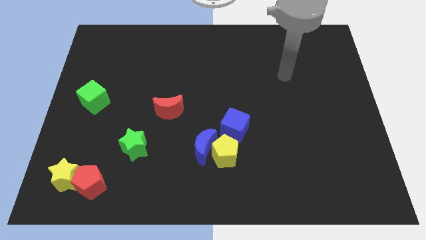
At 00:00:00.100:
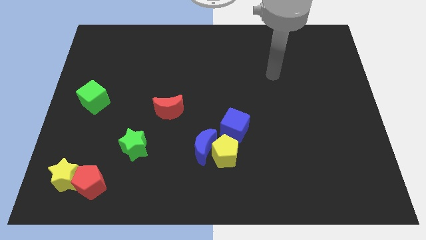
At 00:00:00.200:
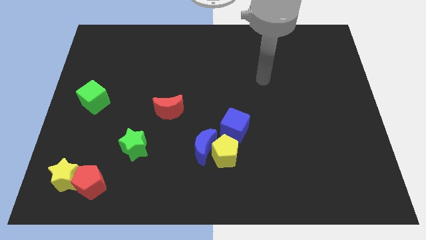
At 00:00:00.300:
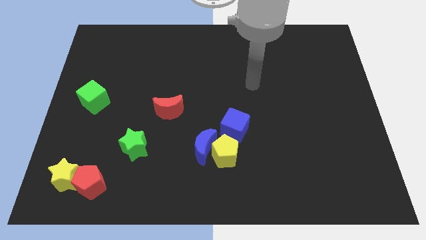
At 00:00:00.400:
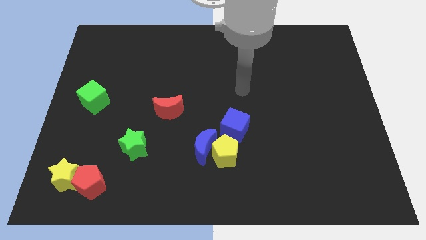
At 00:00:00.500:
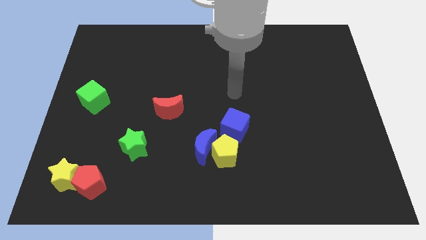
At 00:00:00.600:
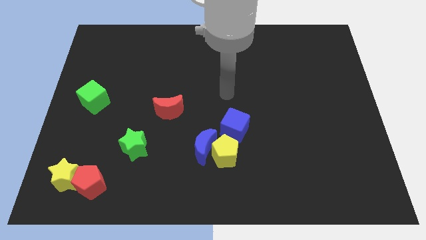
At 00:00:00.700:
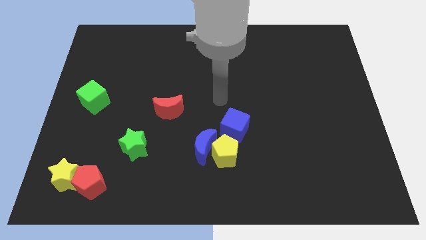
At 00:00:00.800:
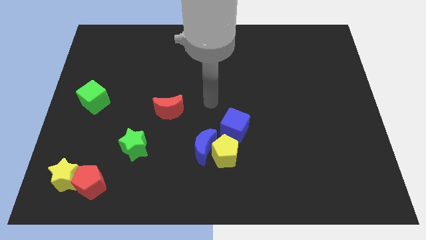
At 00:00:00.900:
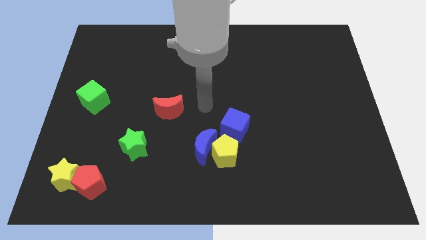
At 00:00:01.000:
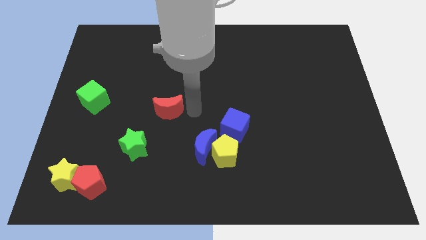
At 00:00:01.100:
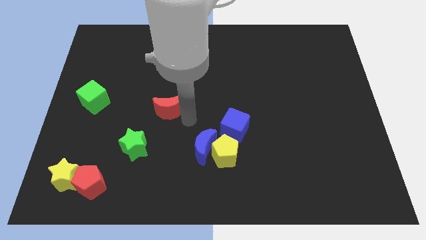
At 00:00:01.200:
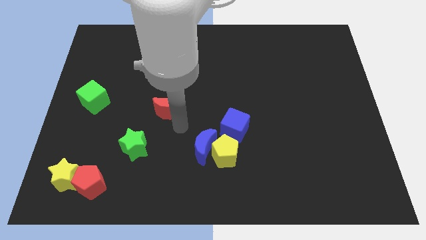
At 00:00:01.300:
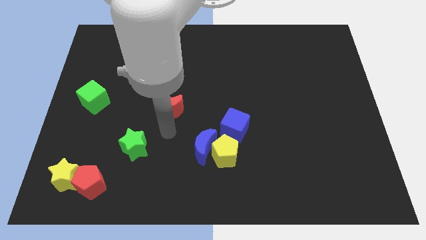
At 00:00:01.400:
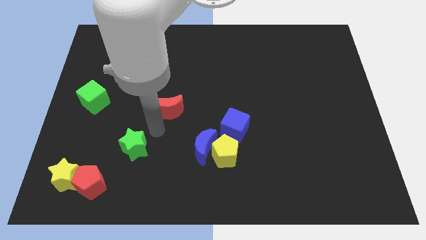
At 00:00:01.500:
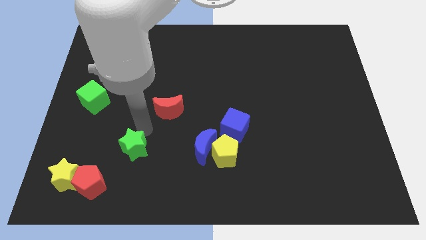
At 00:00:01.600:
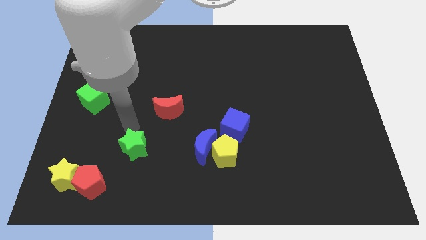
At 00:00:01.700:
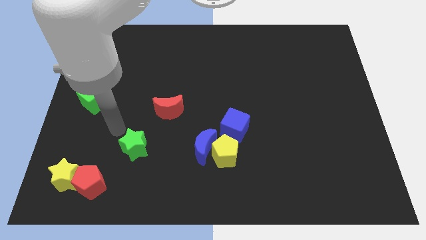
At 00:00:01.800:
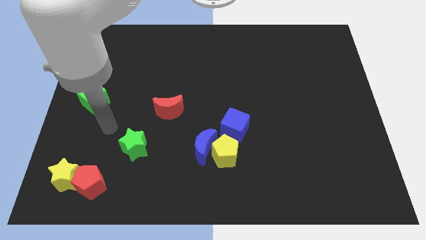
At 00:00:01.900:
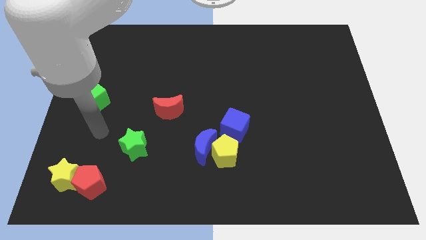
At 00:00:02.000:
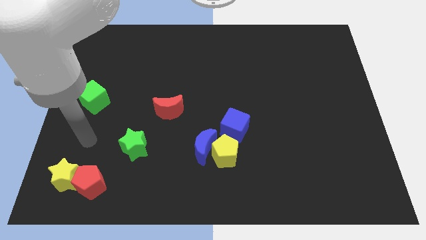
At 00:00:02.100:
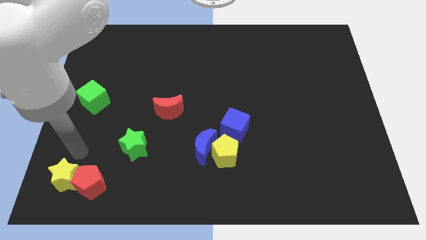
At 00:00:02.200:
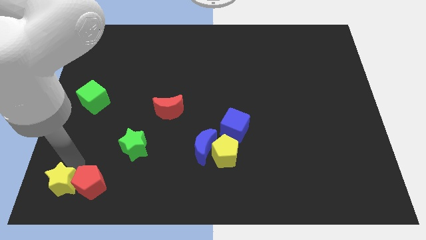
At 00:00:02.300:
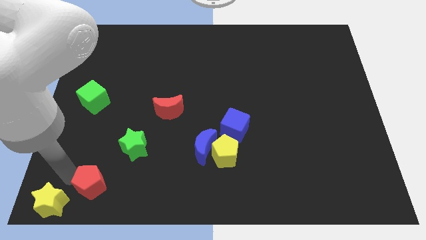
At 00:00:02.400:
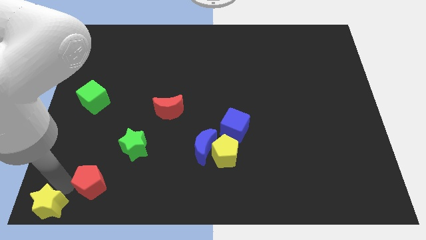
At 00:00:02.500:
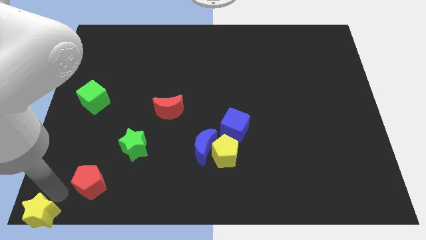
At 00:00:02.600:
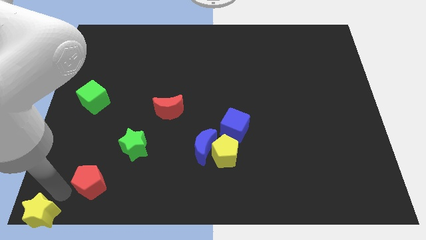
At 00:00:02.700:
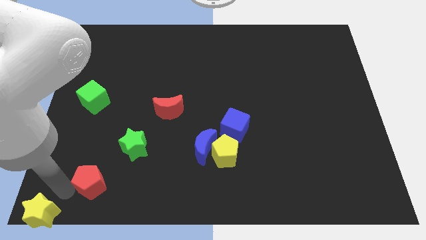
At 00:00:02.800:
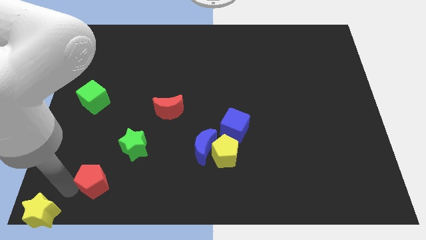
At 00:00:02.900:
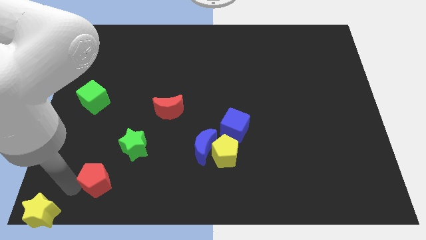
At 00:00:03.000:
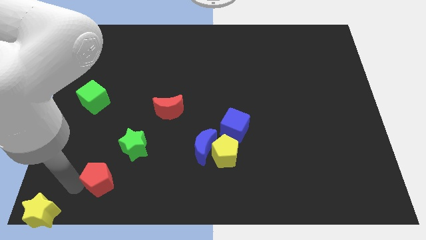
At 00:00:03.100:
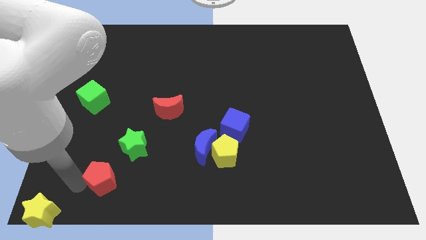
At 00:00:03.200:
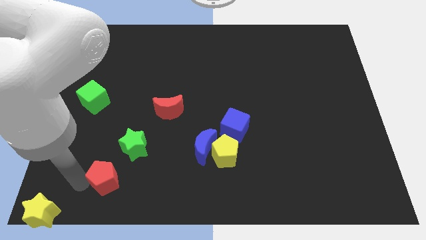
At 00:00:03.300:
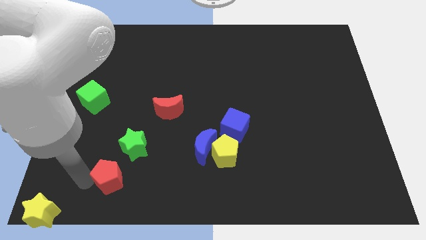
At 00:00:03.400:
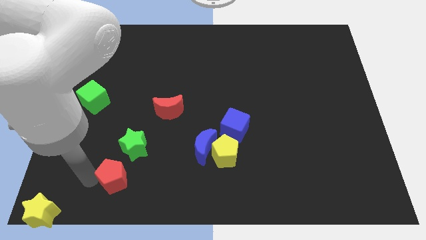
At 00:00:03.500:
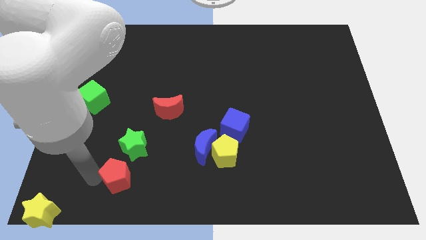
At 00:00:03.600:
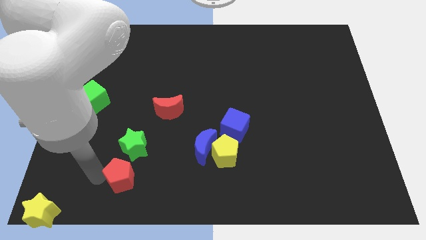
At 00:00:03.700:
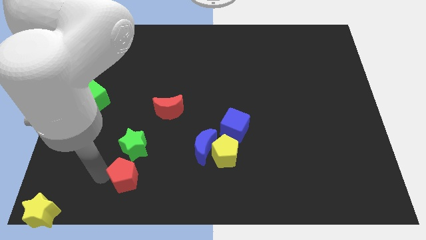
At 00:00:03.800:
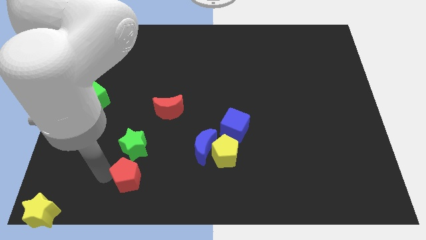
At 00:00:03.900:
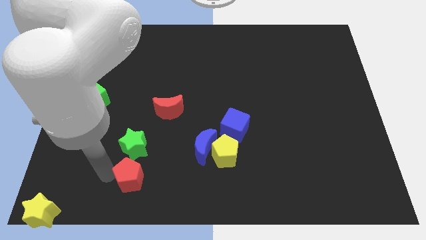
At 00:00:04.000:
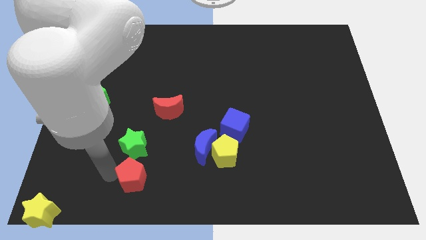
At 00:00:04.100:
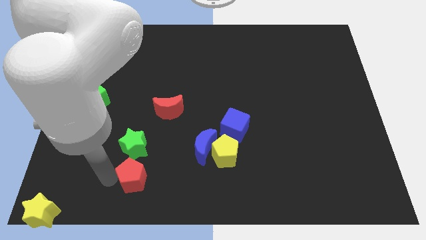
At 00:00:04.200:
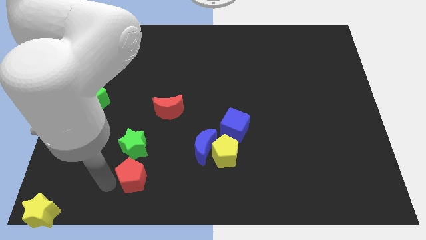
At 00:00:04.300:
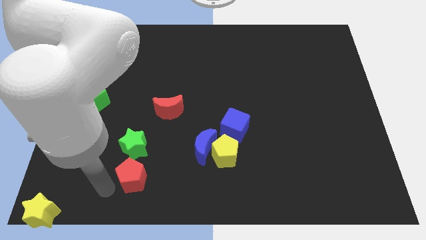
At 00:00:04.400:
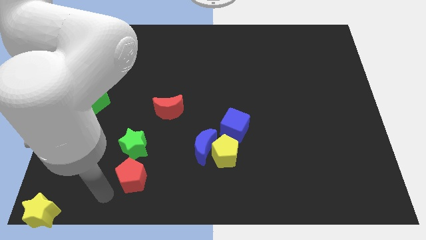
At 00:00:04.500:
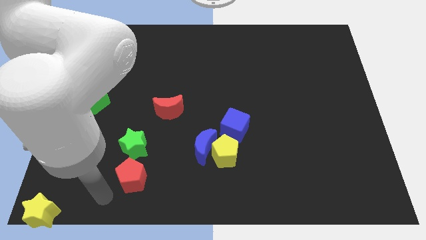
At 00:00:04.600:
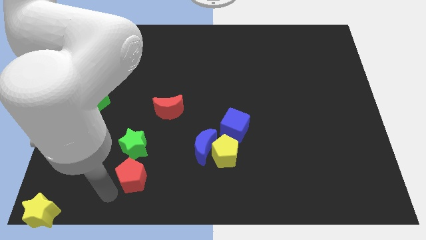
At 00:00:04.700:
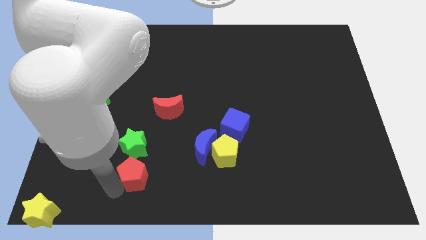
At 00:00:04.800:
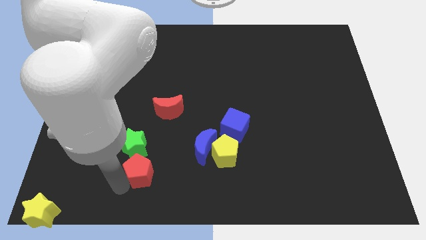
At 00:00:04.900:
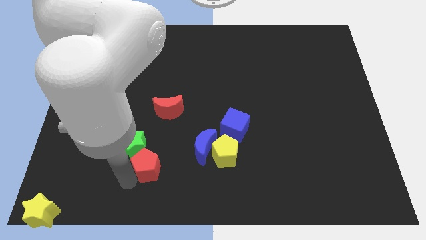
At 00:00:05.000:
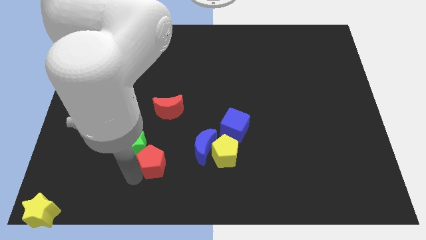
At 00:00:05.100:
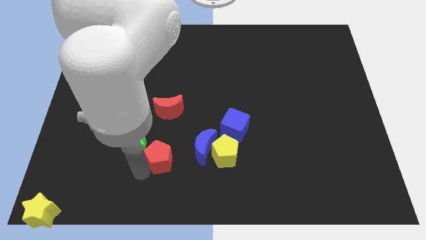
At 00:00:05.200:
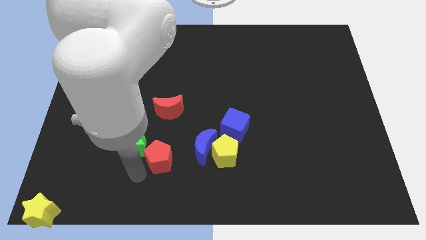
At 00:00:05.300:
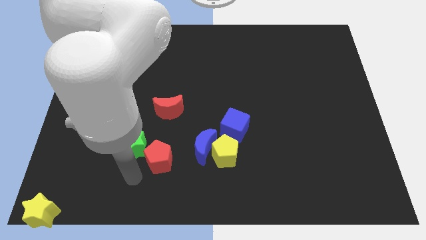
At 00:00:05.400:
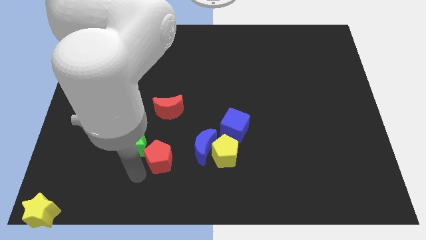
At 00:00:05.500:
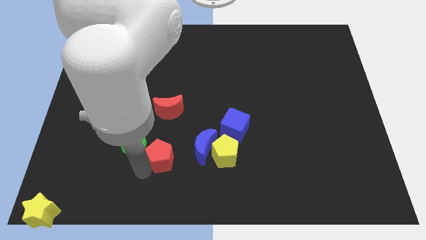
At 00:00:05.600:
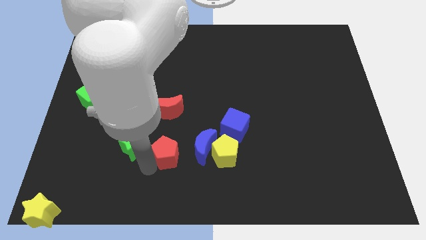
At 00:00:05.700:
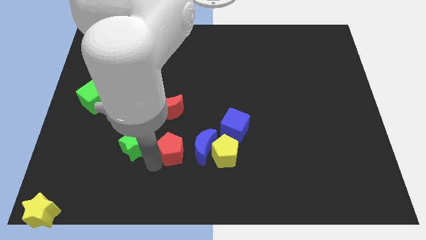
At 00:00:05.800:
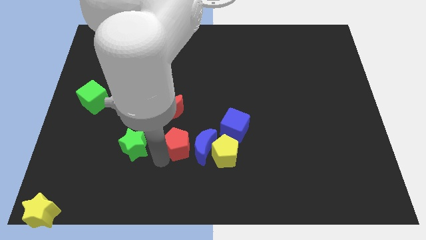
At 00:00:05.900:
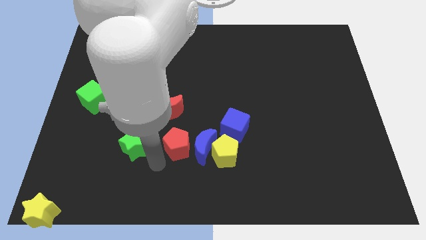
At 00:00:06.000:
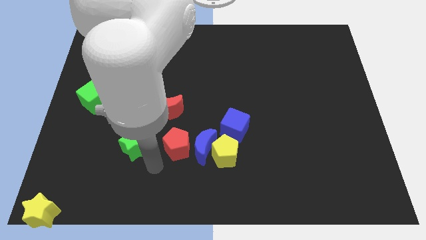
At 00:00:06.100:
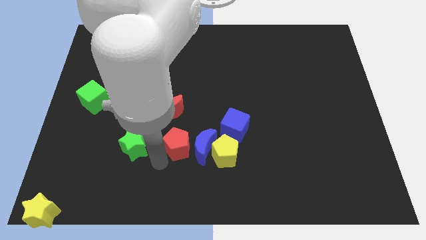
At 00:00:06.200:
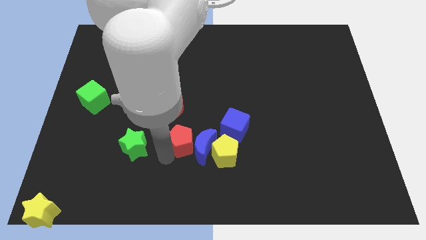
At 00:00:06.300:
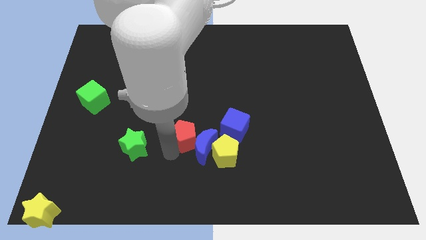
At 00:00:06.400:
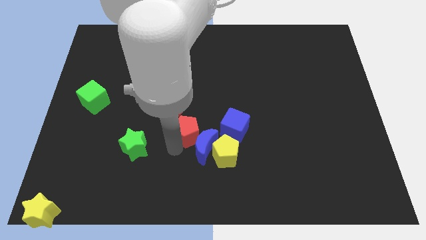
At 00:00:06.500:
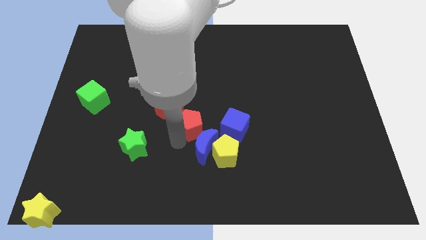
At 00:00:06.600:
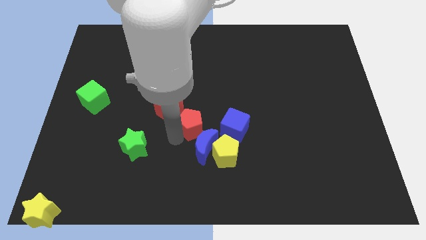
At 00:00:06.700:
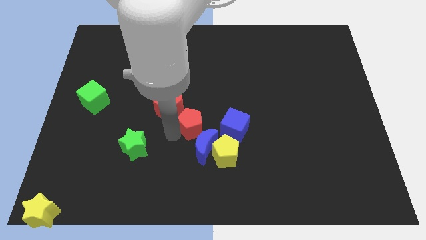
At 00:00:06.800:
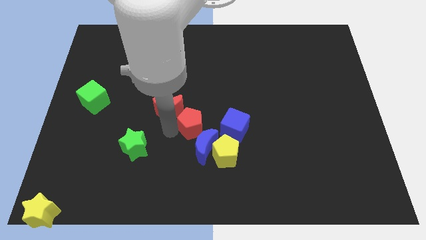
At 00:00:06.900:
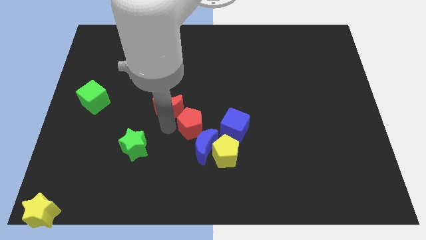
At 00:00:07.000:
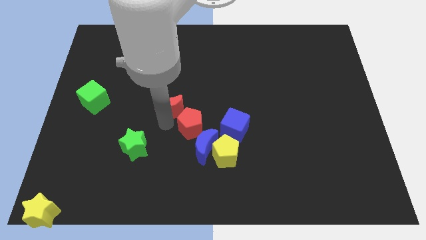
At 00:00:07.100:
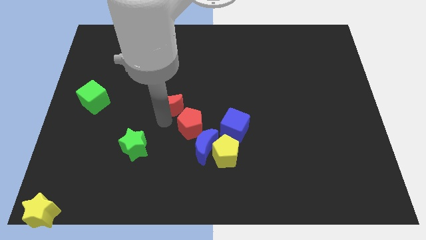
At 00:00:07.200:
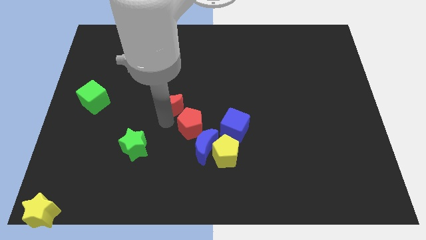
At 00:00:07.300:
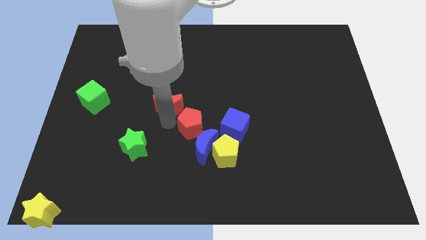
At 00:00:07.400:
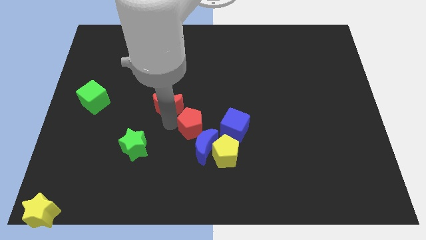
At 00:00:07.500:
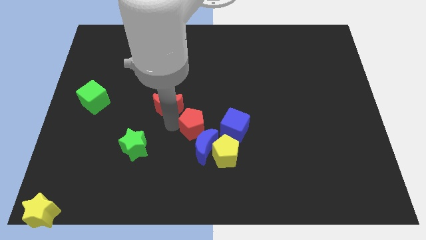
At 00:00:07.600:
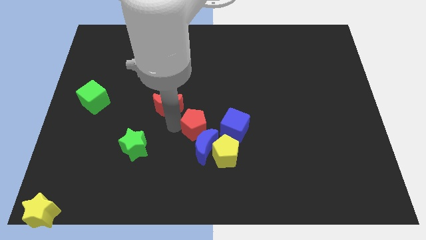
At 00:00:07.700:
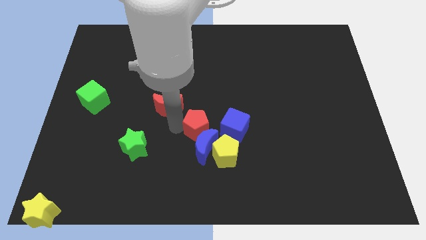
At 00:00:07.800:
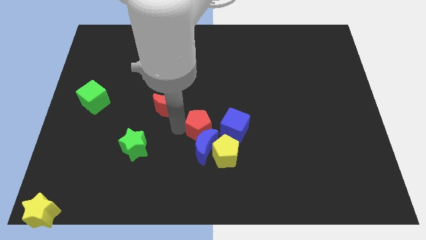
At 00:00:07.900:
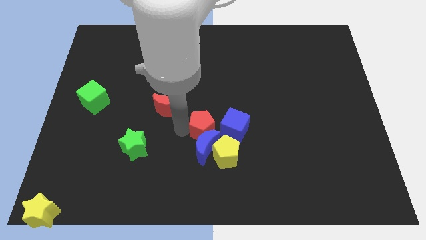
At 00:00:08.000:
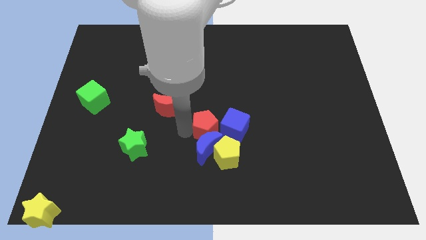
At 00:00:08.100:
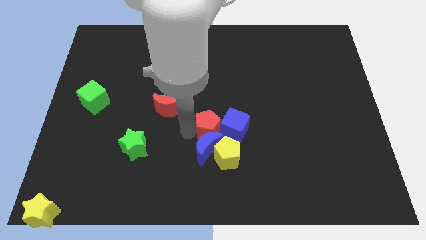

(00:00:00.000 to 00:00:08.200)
move the red pentagon to the blue cube
